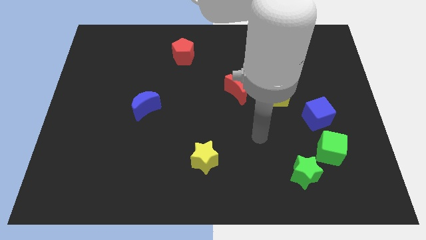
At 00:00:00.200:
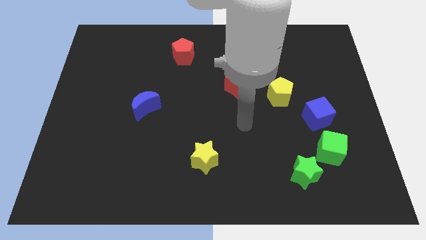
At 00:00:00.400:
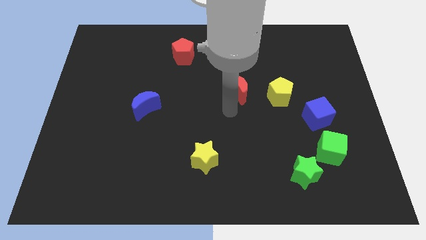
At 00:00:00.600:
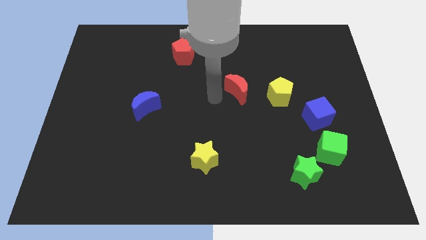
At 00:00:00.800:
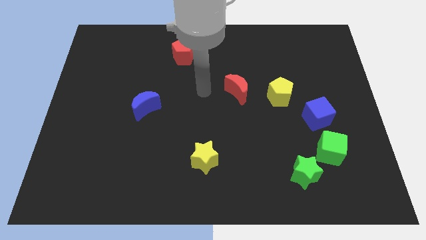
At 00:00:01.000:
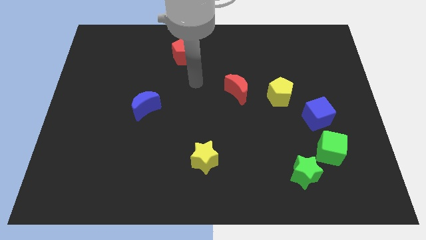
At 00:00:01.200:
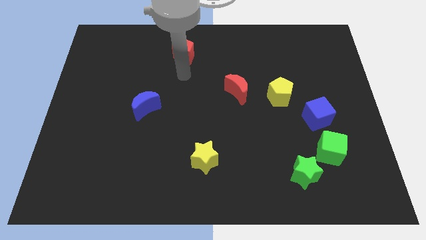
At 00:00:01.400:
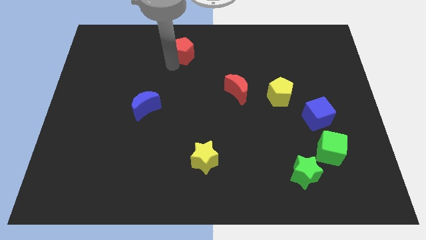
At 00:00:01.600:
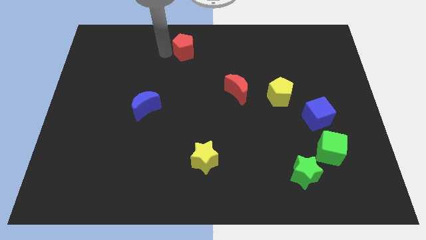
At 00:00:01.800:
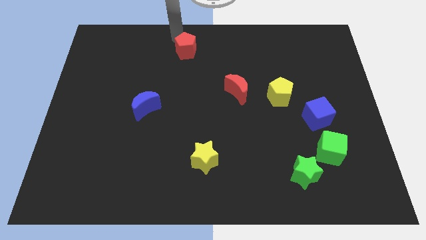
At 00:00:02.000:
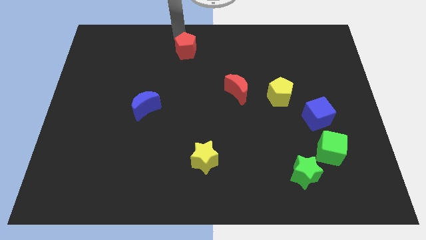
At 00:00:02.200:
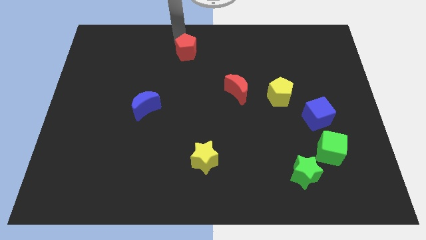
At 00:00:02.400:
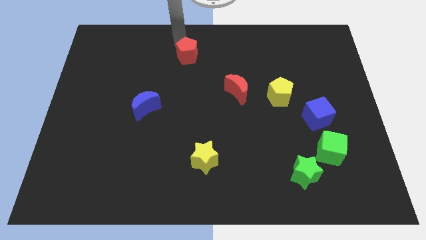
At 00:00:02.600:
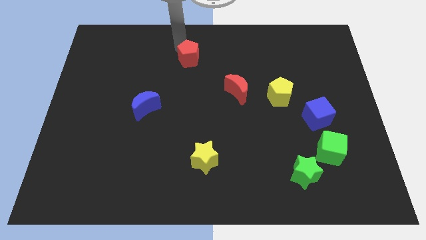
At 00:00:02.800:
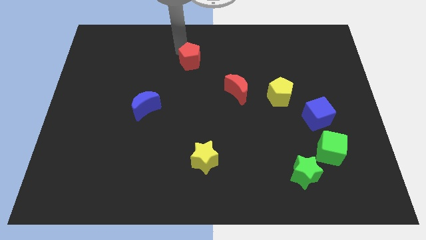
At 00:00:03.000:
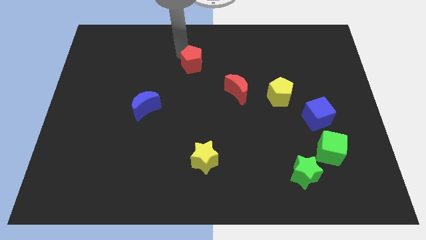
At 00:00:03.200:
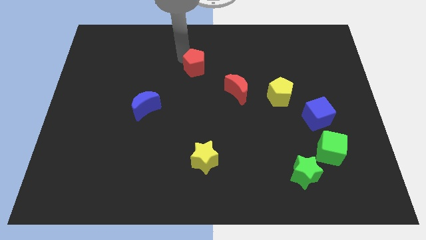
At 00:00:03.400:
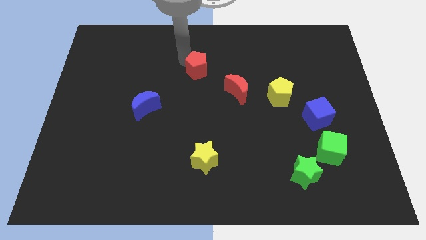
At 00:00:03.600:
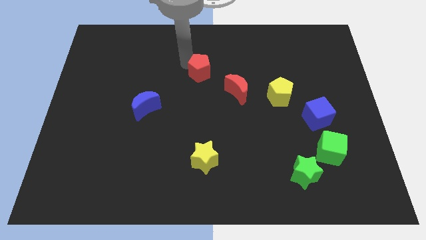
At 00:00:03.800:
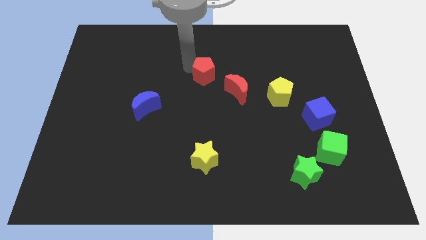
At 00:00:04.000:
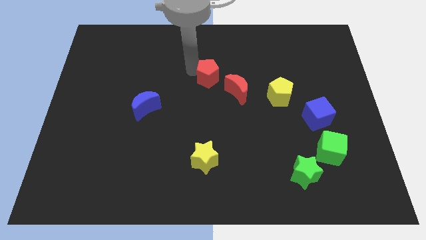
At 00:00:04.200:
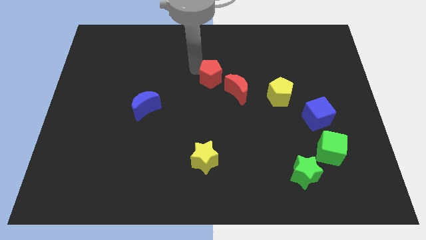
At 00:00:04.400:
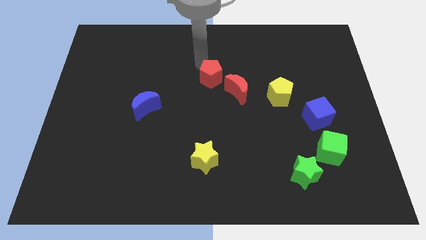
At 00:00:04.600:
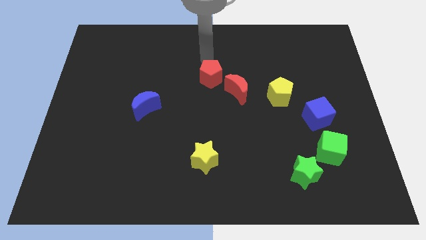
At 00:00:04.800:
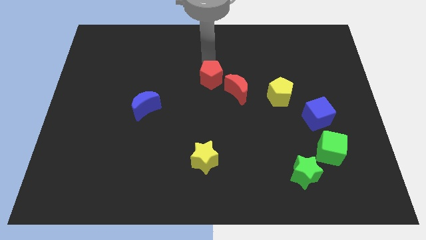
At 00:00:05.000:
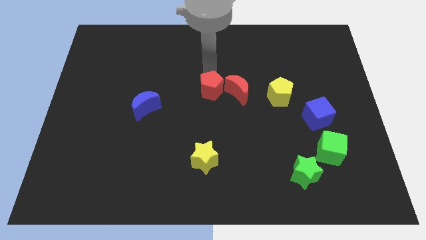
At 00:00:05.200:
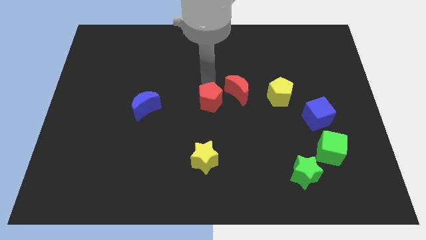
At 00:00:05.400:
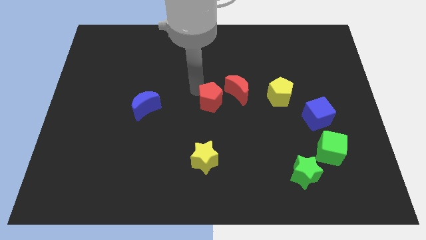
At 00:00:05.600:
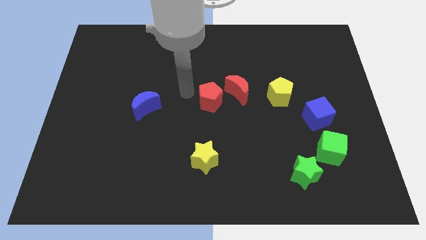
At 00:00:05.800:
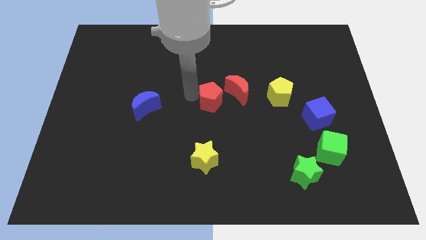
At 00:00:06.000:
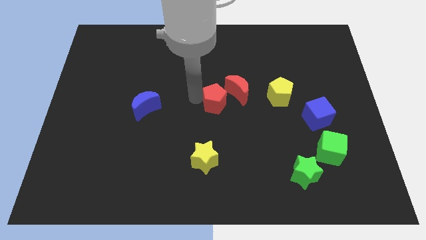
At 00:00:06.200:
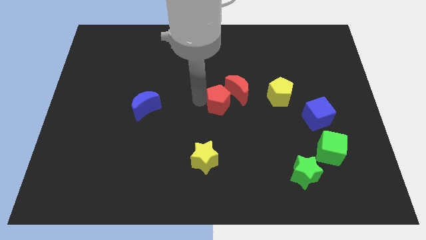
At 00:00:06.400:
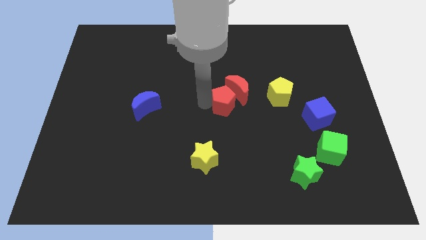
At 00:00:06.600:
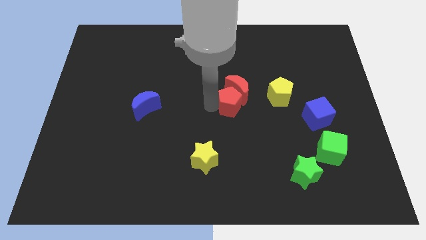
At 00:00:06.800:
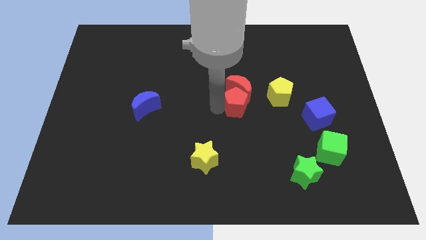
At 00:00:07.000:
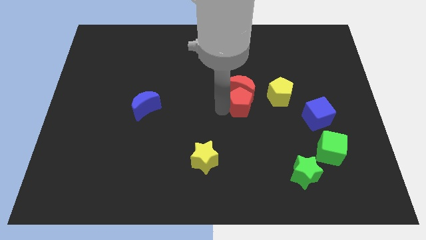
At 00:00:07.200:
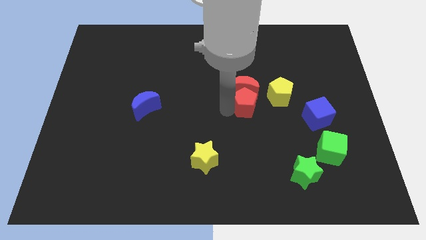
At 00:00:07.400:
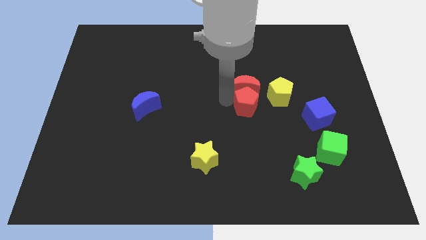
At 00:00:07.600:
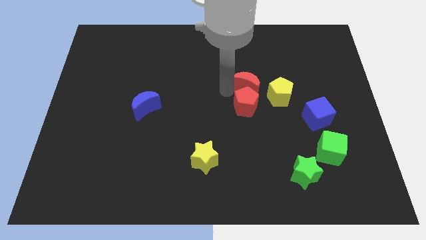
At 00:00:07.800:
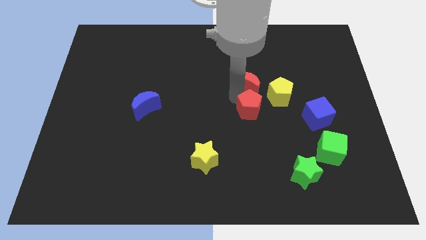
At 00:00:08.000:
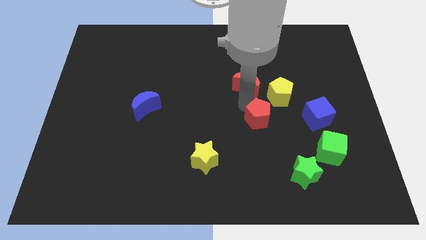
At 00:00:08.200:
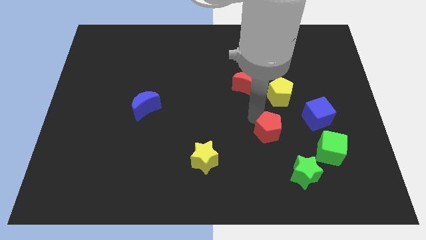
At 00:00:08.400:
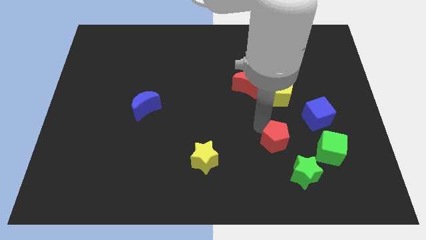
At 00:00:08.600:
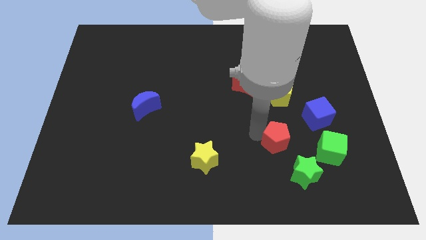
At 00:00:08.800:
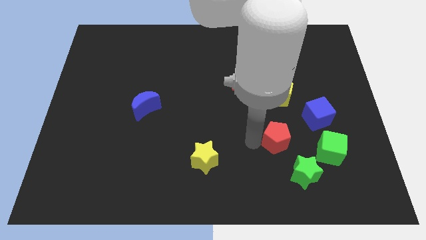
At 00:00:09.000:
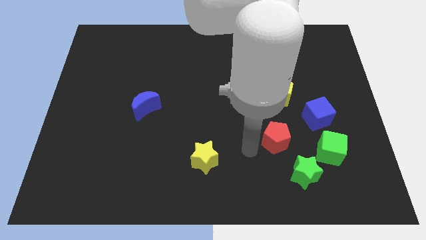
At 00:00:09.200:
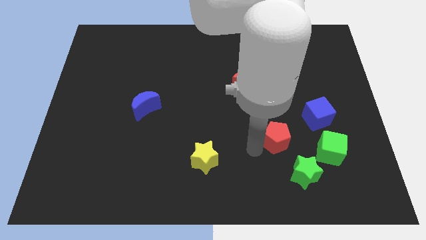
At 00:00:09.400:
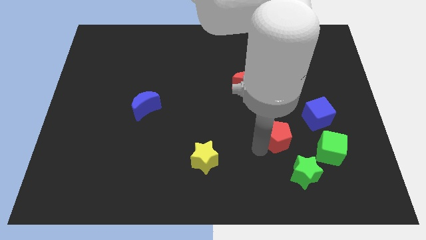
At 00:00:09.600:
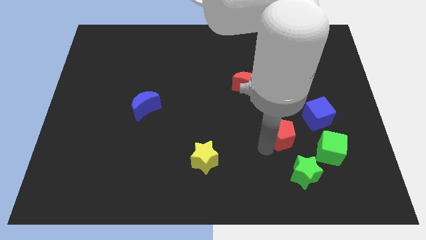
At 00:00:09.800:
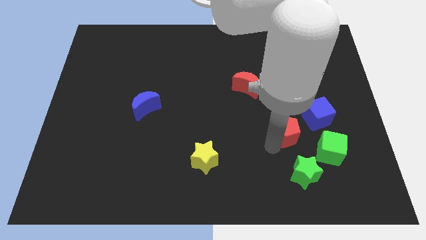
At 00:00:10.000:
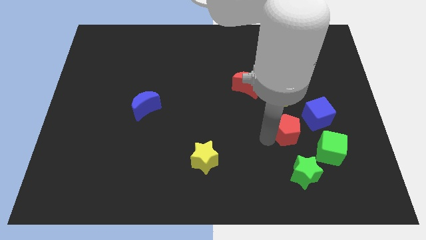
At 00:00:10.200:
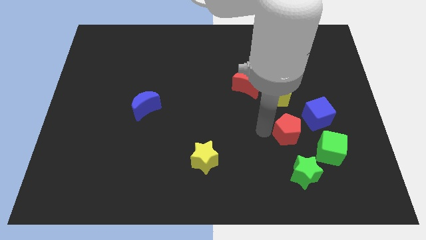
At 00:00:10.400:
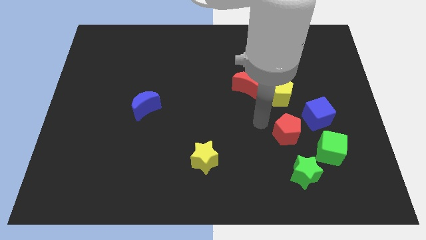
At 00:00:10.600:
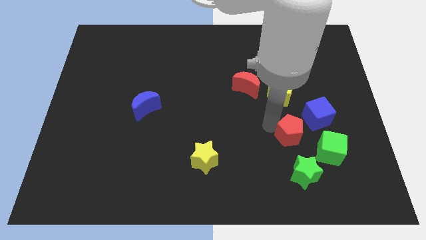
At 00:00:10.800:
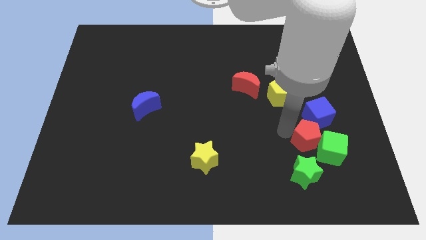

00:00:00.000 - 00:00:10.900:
move the red pentagon close to the green cube

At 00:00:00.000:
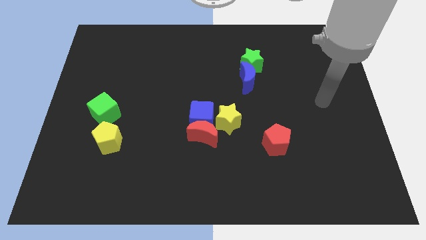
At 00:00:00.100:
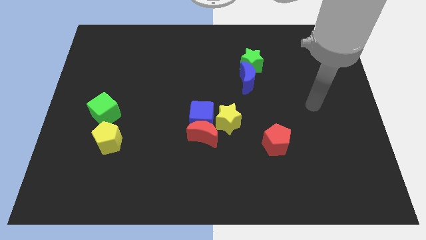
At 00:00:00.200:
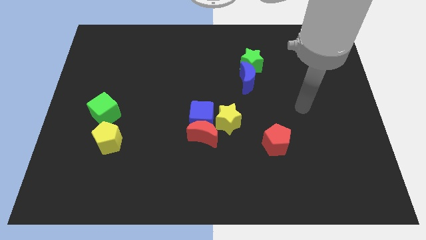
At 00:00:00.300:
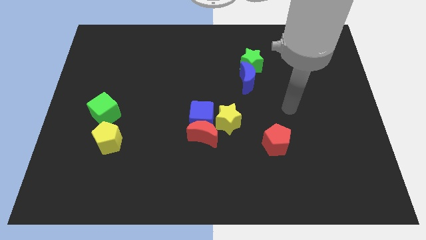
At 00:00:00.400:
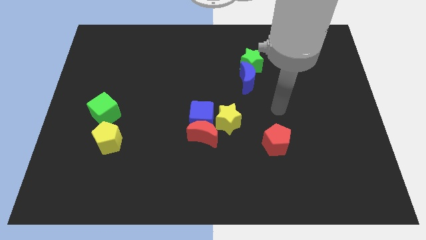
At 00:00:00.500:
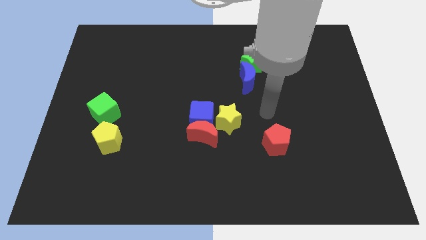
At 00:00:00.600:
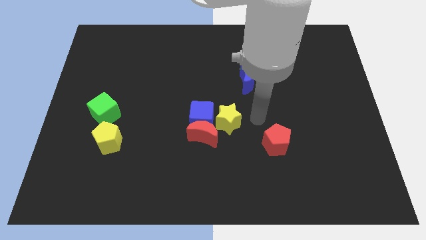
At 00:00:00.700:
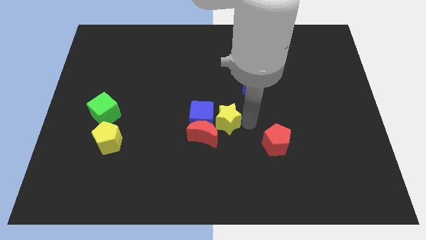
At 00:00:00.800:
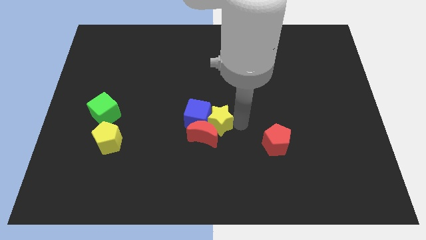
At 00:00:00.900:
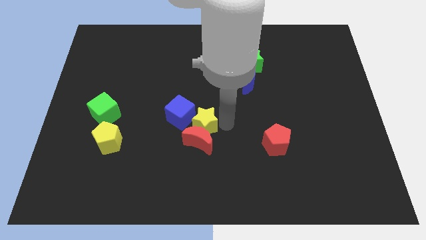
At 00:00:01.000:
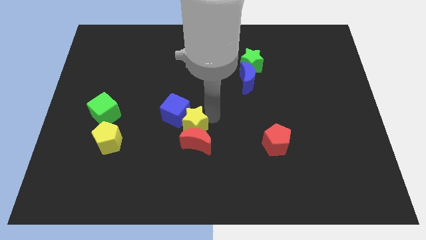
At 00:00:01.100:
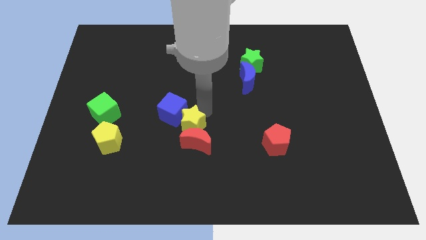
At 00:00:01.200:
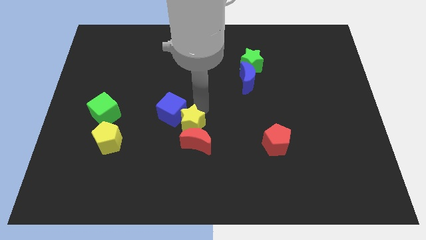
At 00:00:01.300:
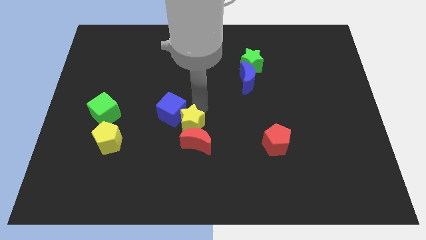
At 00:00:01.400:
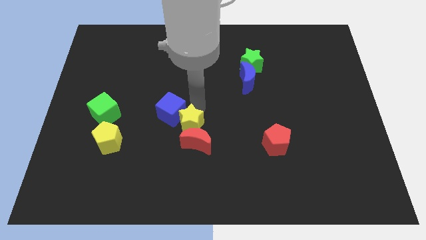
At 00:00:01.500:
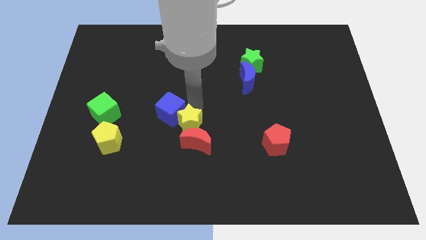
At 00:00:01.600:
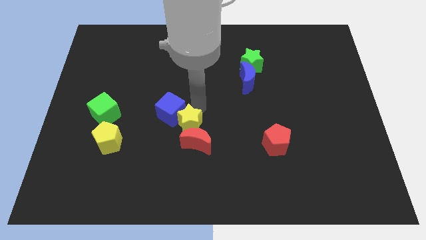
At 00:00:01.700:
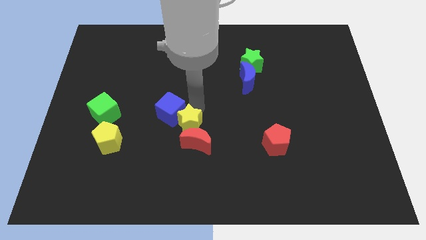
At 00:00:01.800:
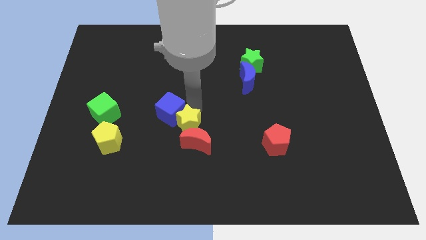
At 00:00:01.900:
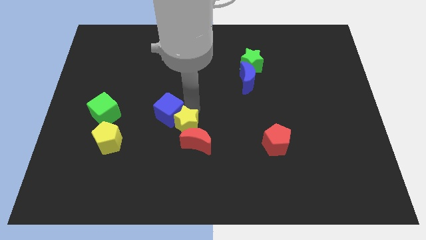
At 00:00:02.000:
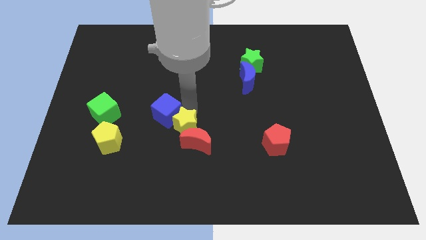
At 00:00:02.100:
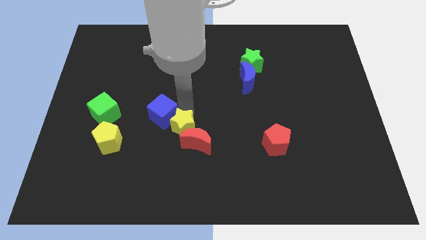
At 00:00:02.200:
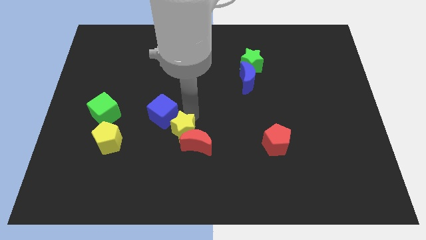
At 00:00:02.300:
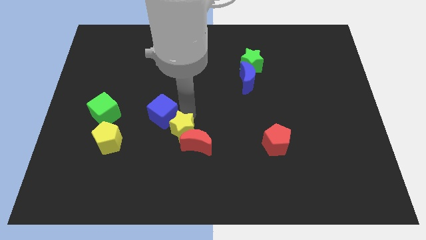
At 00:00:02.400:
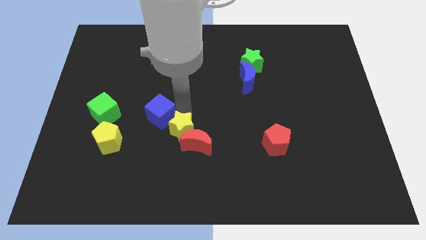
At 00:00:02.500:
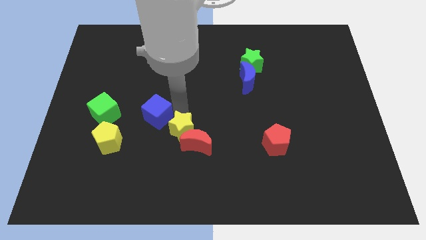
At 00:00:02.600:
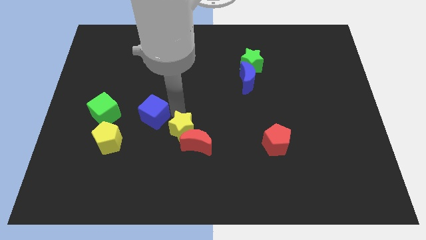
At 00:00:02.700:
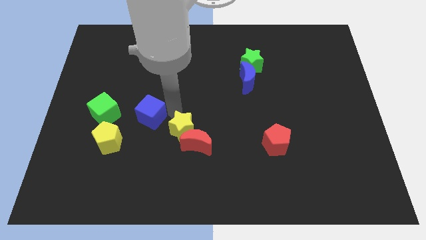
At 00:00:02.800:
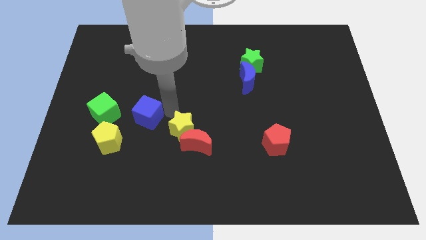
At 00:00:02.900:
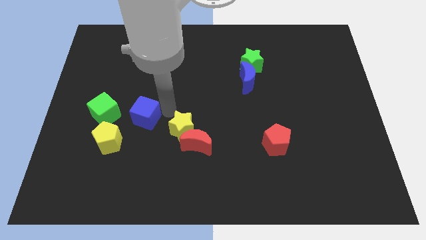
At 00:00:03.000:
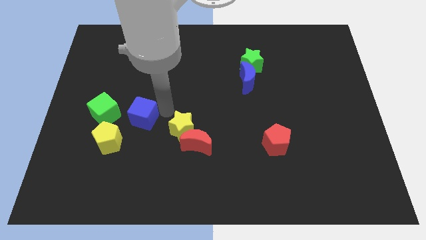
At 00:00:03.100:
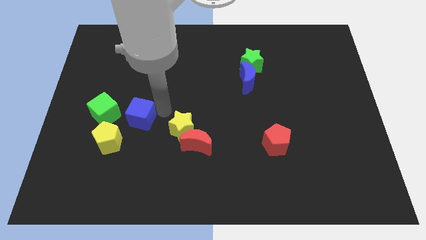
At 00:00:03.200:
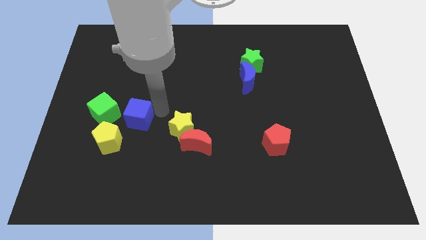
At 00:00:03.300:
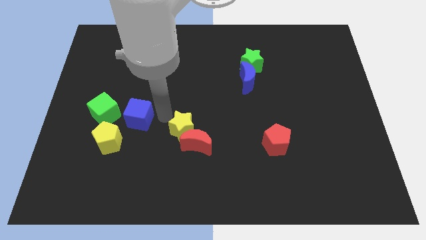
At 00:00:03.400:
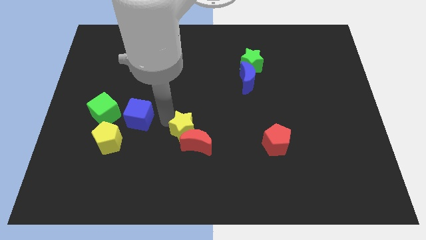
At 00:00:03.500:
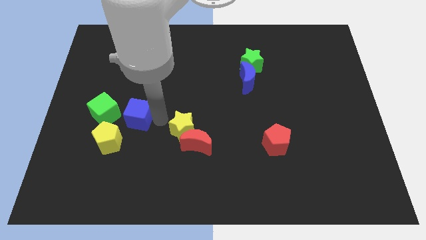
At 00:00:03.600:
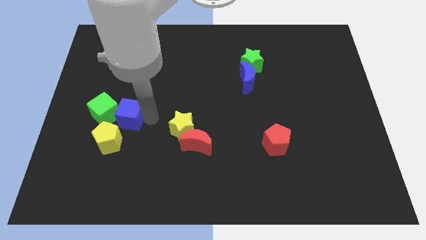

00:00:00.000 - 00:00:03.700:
push the blue cube close to the green cube
